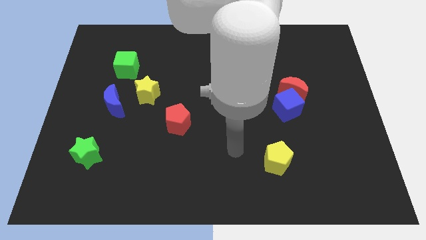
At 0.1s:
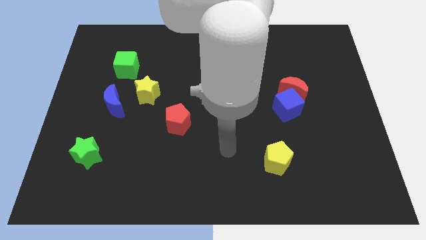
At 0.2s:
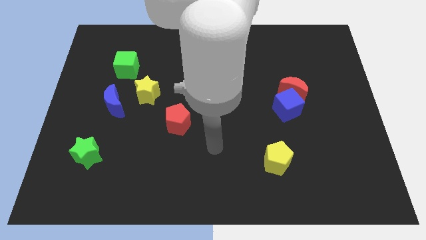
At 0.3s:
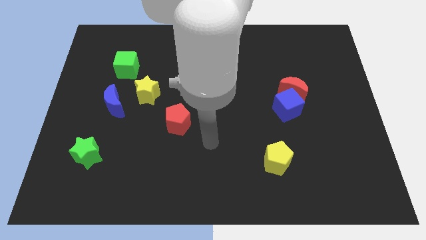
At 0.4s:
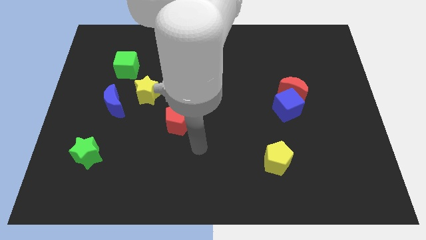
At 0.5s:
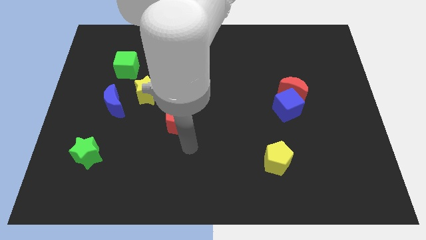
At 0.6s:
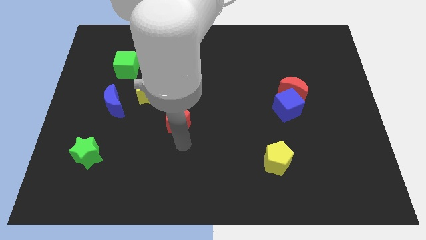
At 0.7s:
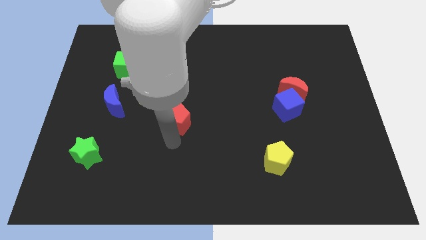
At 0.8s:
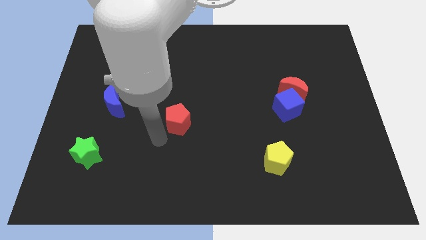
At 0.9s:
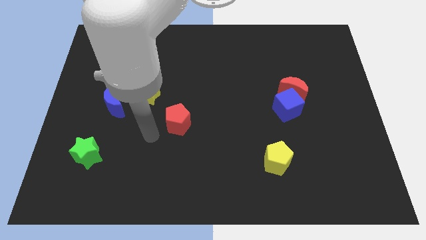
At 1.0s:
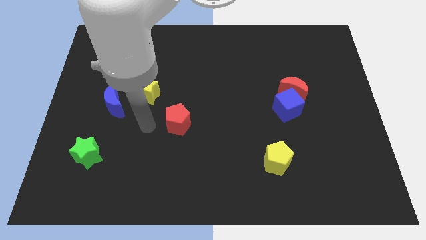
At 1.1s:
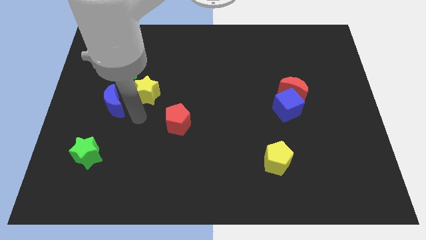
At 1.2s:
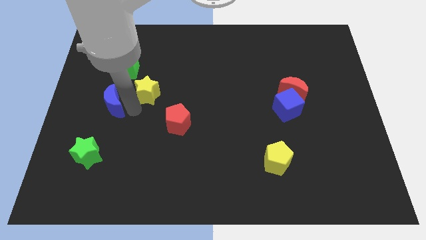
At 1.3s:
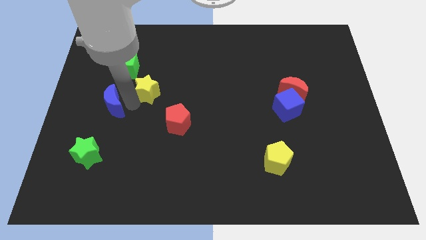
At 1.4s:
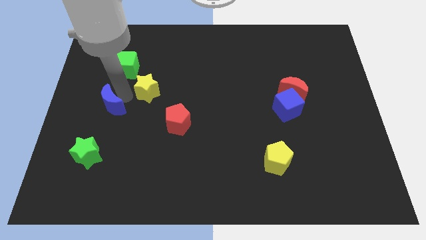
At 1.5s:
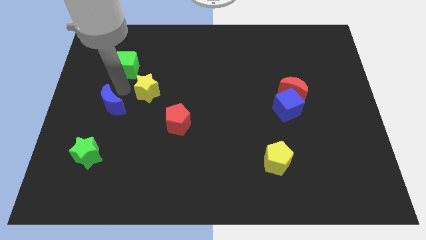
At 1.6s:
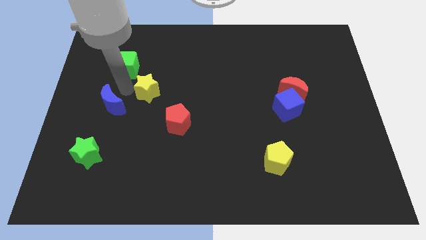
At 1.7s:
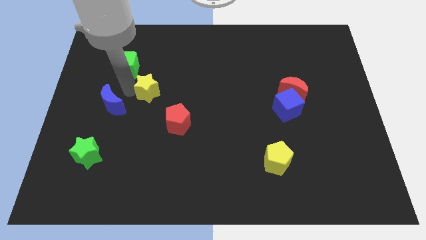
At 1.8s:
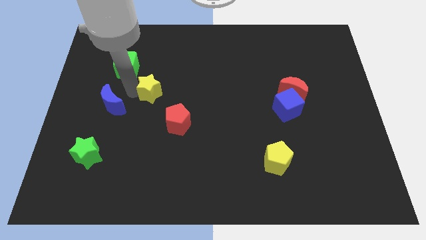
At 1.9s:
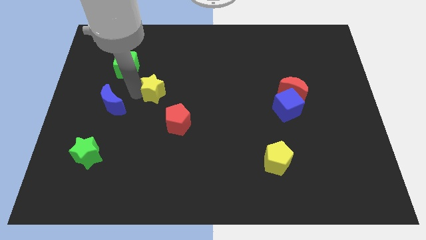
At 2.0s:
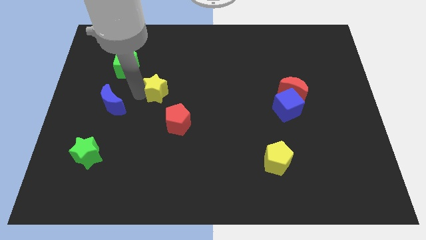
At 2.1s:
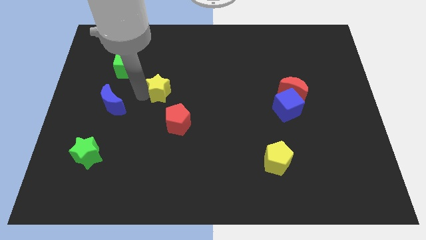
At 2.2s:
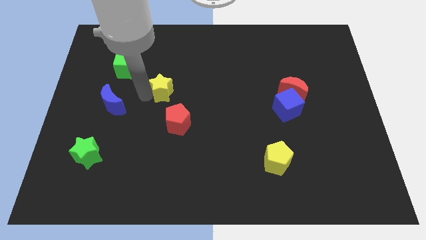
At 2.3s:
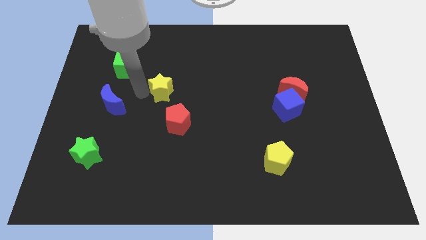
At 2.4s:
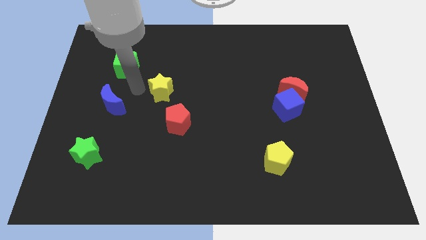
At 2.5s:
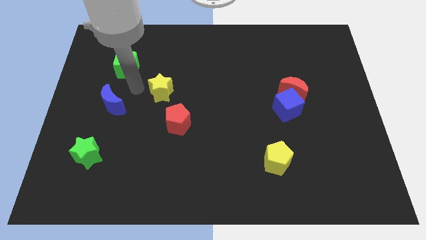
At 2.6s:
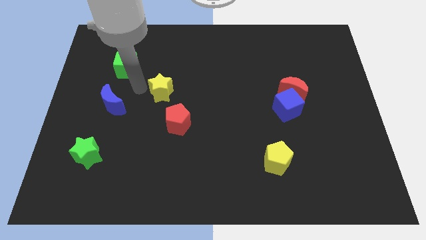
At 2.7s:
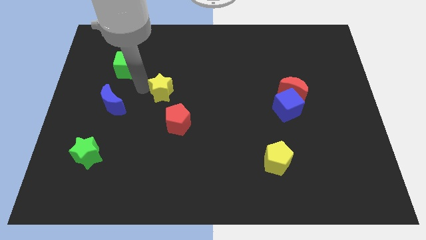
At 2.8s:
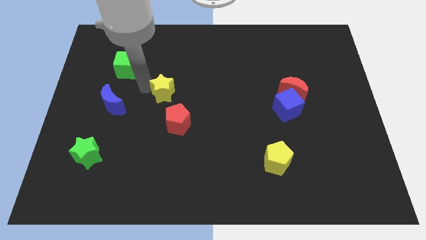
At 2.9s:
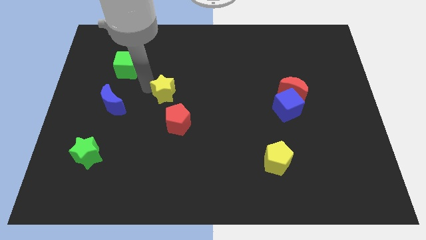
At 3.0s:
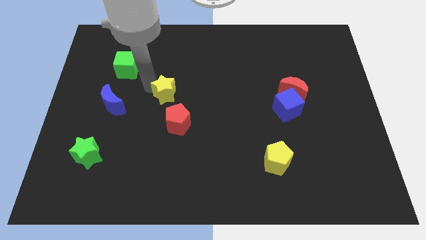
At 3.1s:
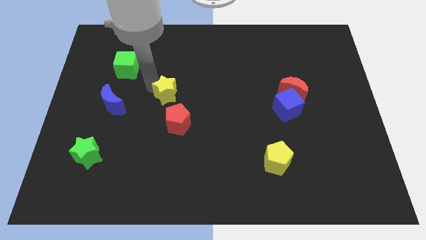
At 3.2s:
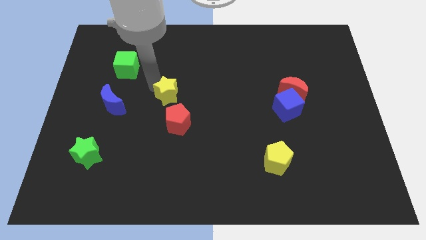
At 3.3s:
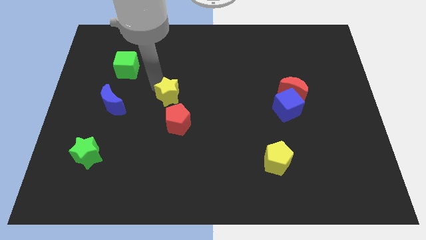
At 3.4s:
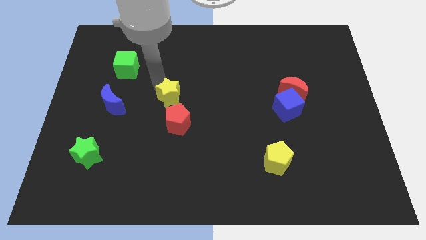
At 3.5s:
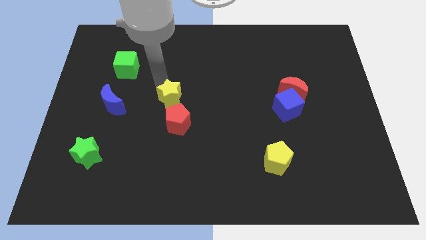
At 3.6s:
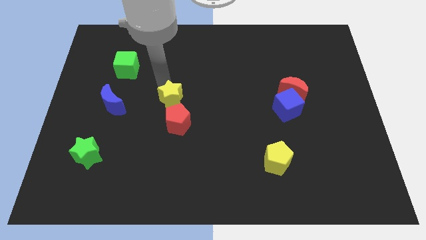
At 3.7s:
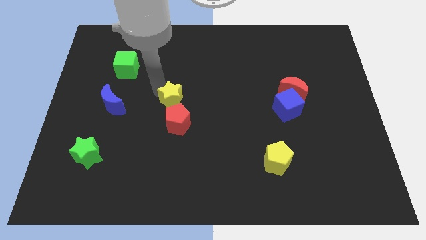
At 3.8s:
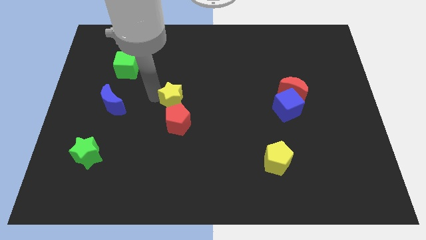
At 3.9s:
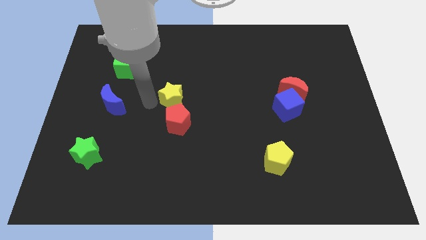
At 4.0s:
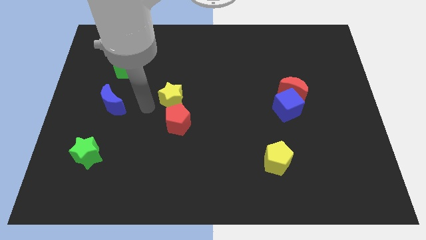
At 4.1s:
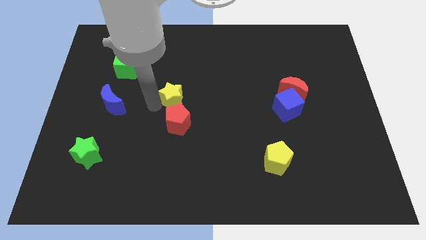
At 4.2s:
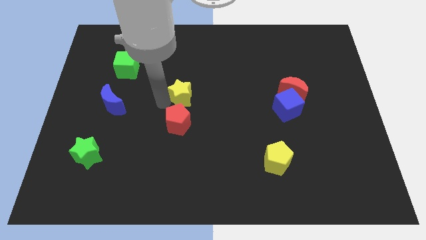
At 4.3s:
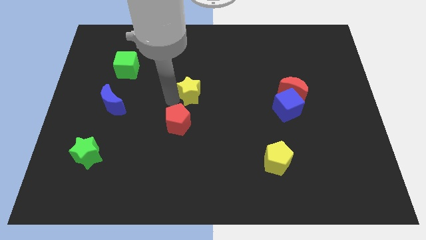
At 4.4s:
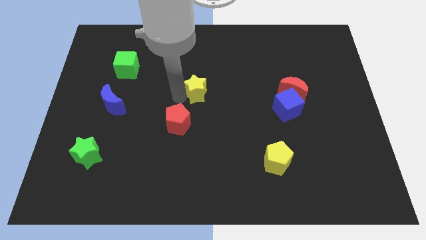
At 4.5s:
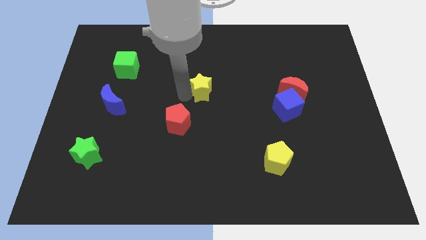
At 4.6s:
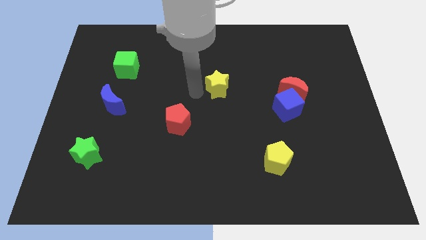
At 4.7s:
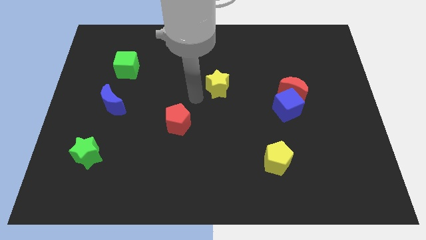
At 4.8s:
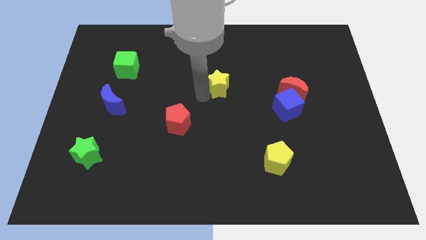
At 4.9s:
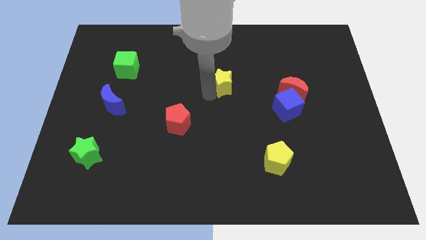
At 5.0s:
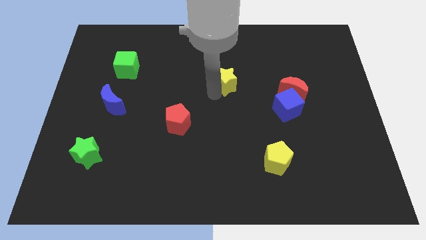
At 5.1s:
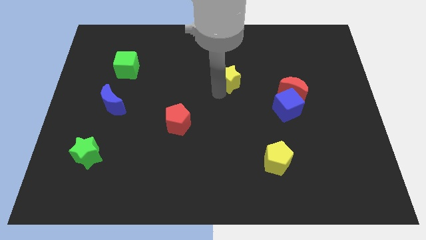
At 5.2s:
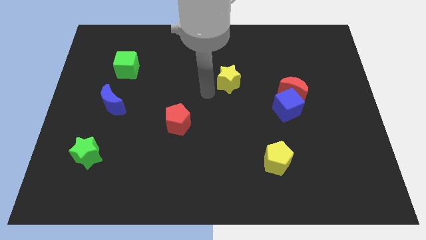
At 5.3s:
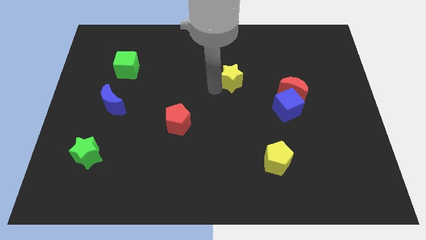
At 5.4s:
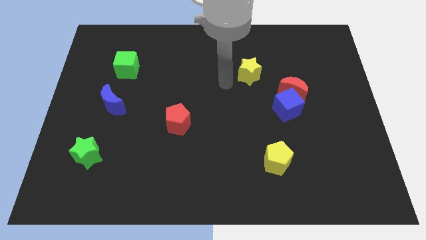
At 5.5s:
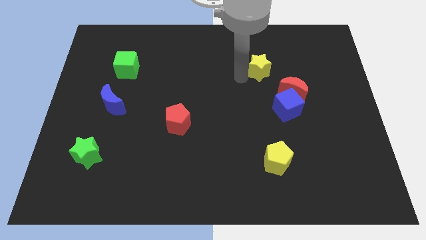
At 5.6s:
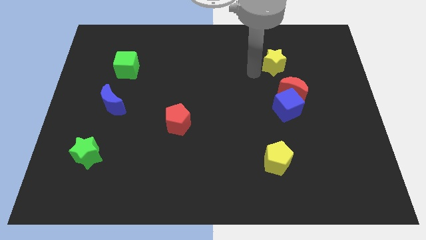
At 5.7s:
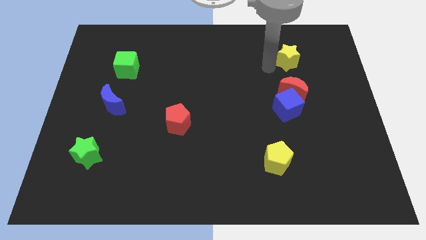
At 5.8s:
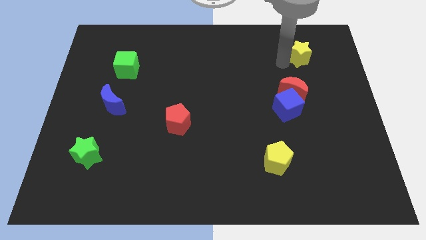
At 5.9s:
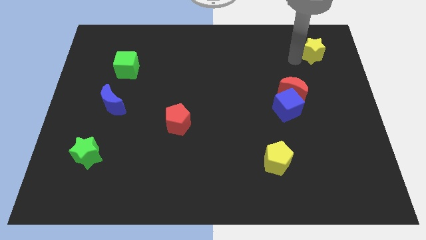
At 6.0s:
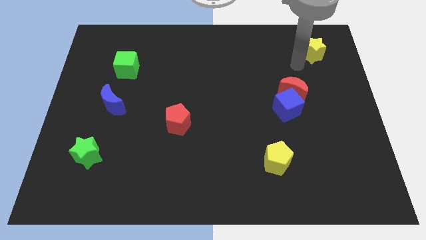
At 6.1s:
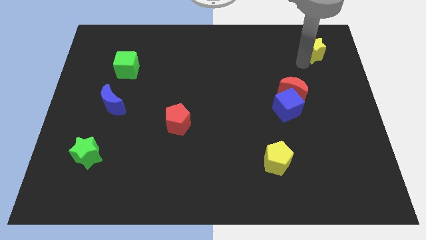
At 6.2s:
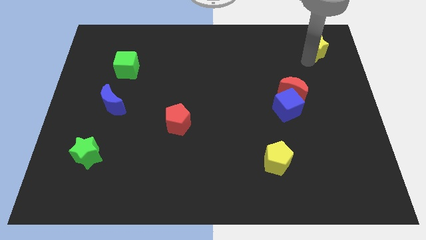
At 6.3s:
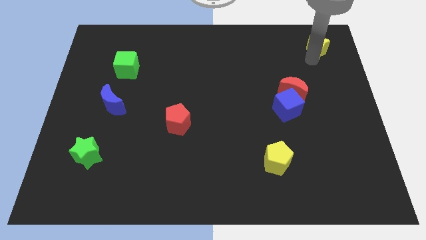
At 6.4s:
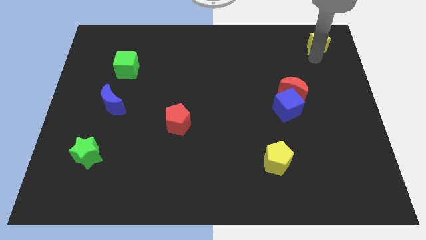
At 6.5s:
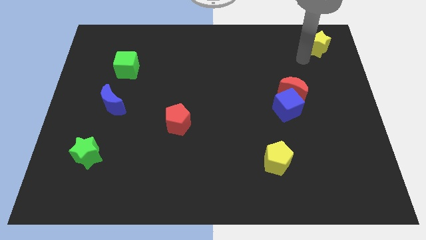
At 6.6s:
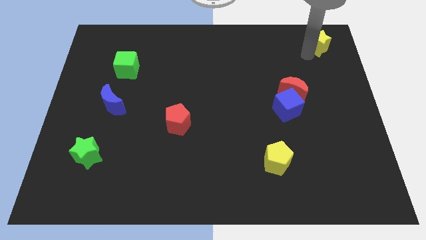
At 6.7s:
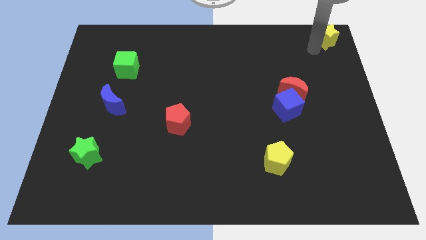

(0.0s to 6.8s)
move the yellow star to the top right corner

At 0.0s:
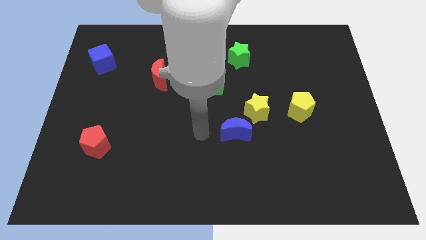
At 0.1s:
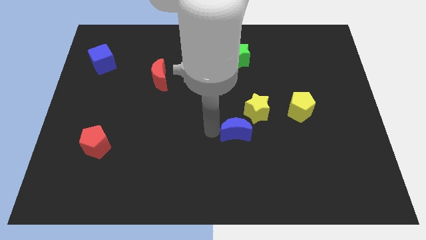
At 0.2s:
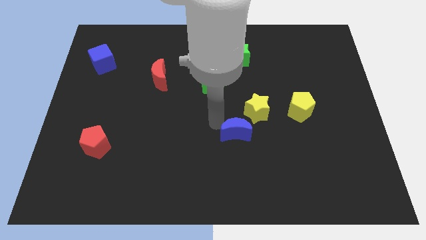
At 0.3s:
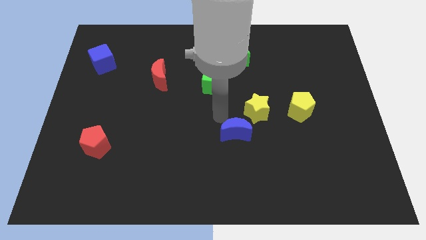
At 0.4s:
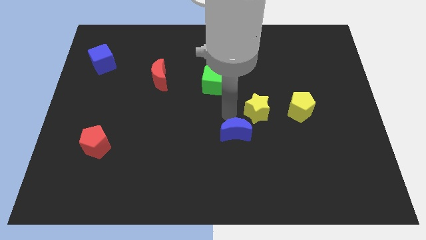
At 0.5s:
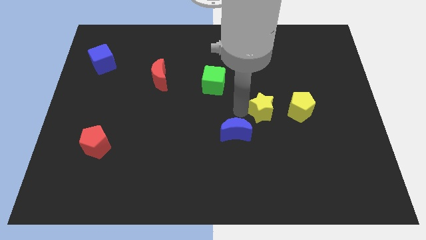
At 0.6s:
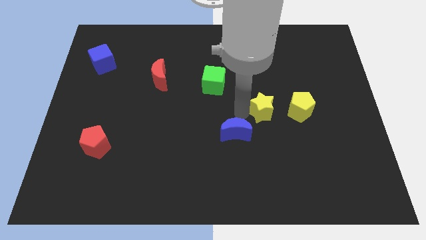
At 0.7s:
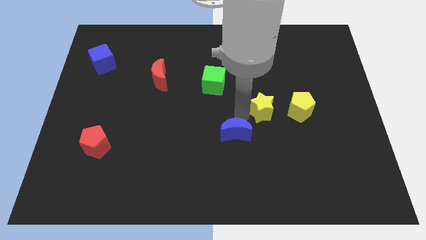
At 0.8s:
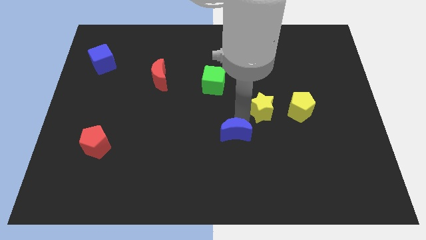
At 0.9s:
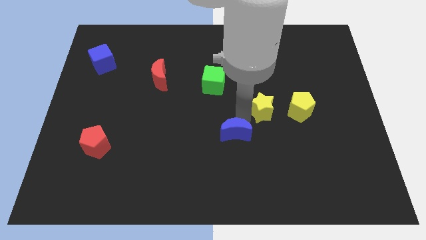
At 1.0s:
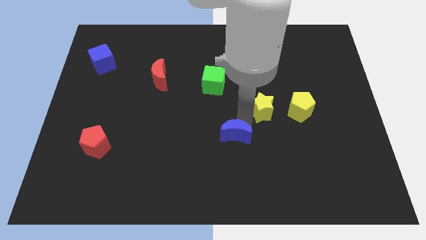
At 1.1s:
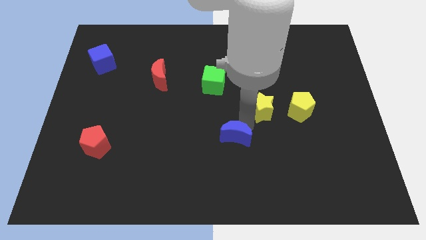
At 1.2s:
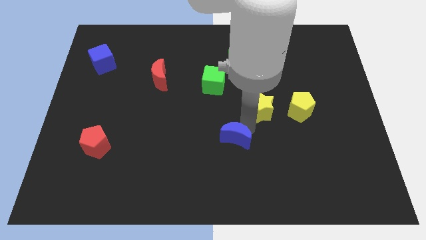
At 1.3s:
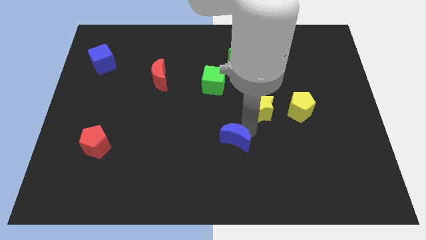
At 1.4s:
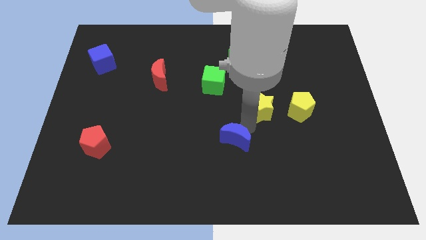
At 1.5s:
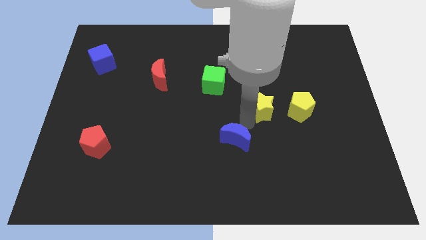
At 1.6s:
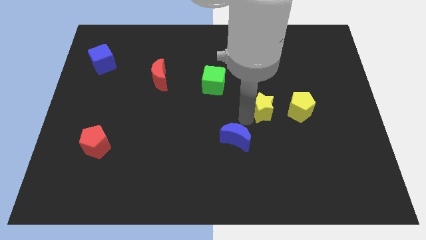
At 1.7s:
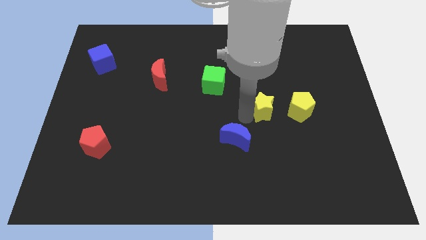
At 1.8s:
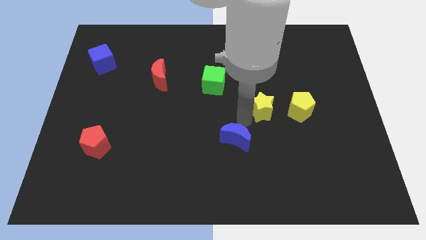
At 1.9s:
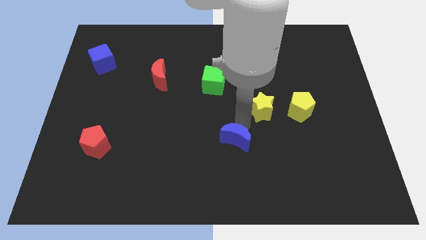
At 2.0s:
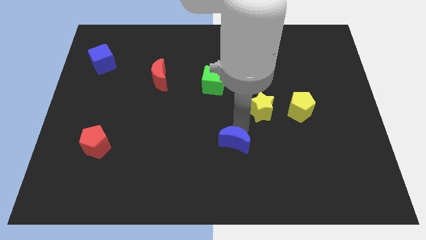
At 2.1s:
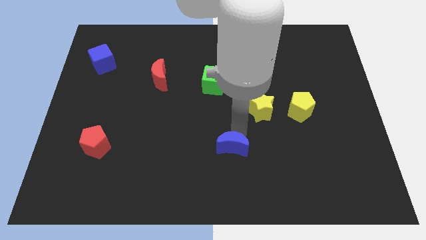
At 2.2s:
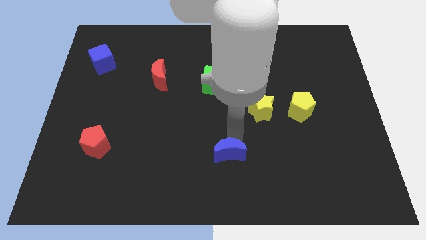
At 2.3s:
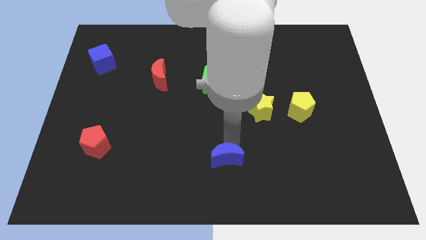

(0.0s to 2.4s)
put the blue moon to the bottom
